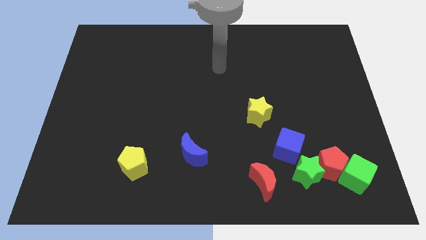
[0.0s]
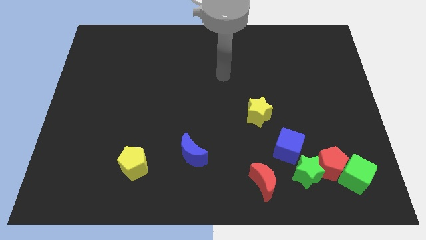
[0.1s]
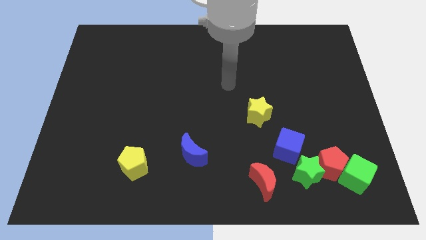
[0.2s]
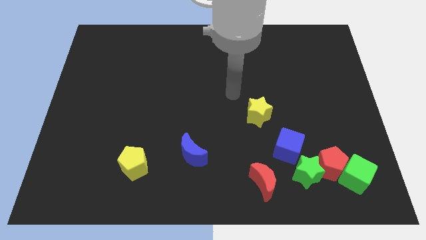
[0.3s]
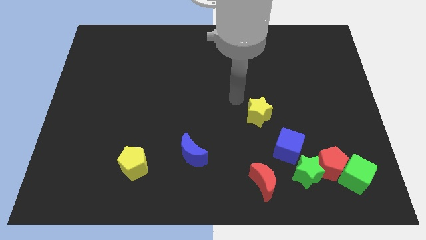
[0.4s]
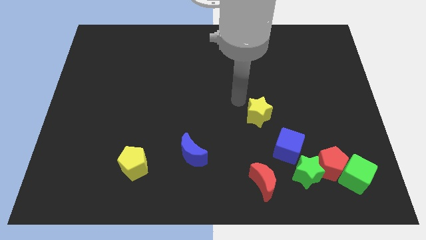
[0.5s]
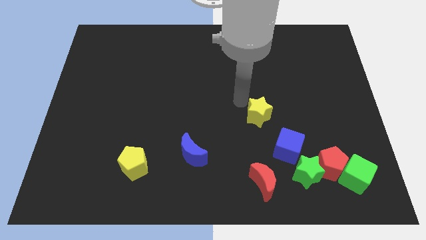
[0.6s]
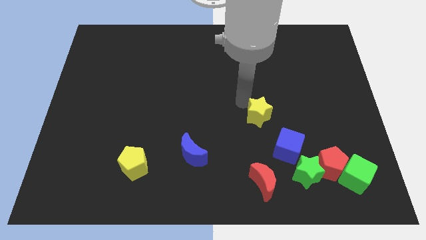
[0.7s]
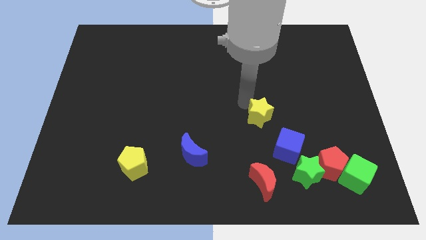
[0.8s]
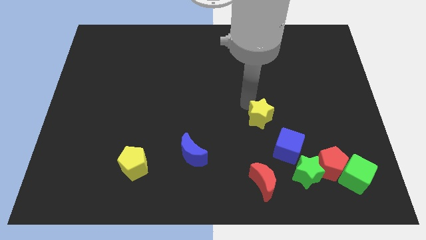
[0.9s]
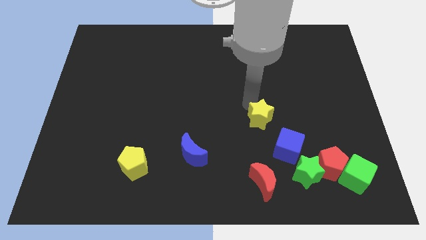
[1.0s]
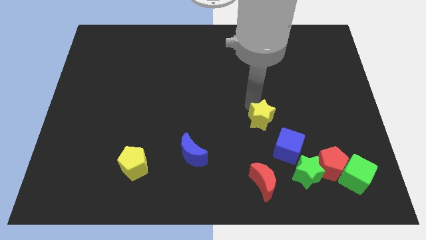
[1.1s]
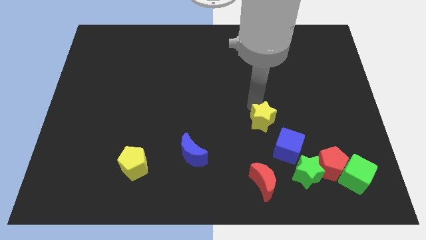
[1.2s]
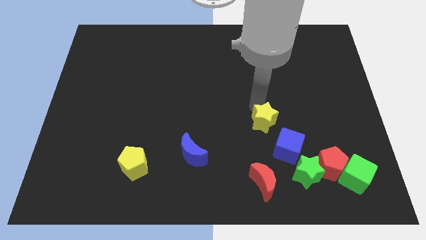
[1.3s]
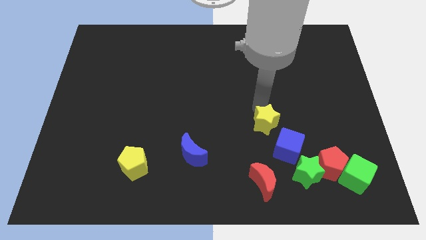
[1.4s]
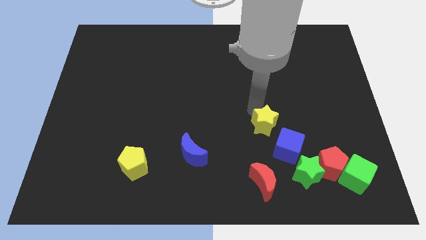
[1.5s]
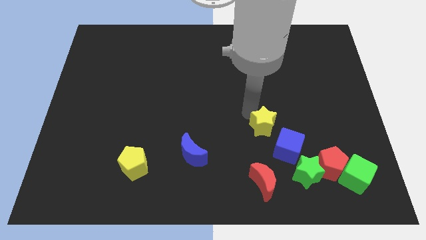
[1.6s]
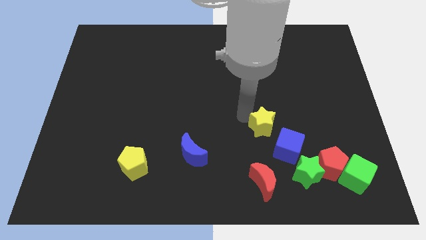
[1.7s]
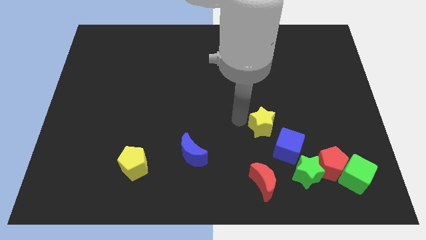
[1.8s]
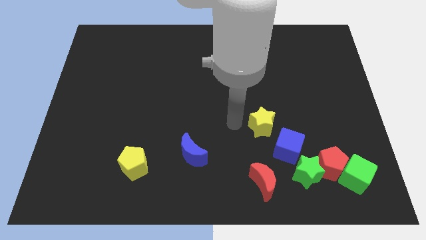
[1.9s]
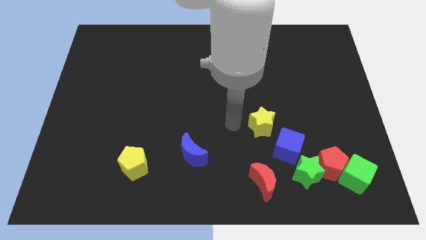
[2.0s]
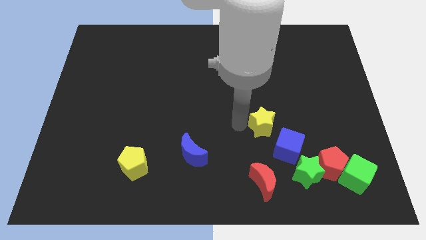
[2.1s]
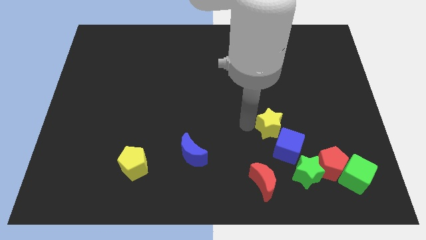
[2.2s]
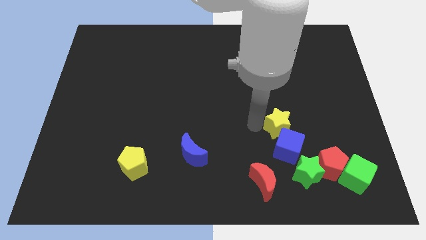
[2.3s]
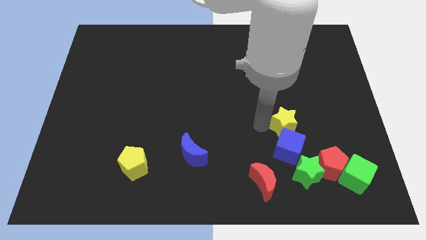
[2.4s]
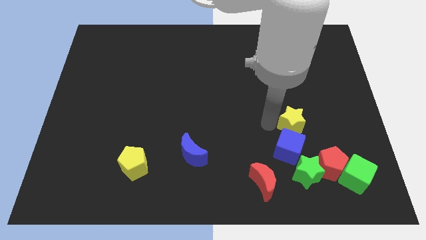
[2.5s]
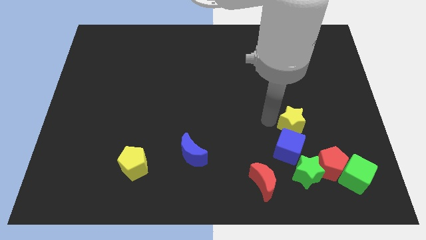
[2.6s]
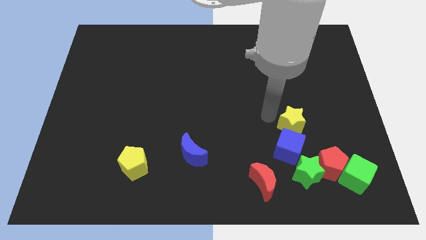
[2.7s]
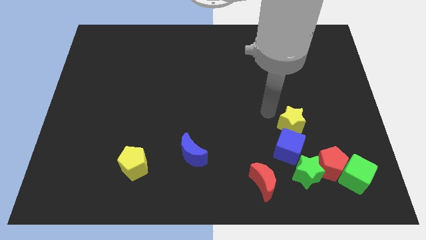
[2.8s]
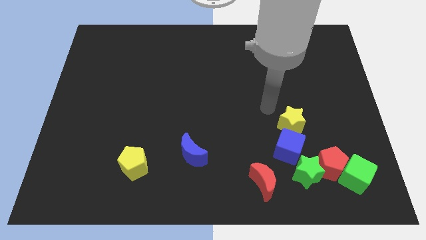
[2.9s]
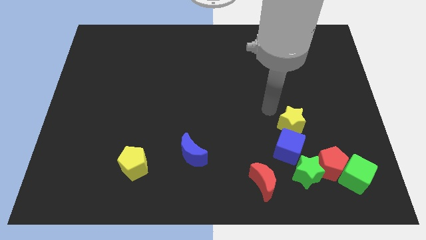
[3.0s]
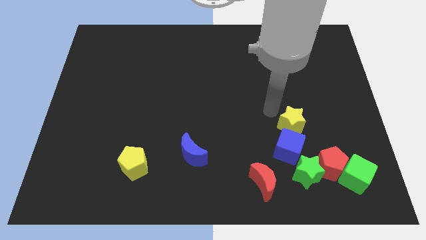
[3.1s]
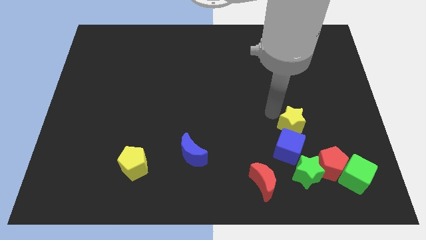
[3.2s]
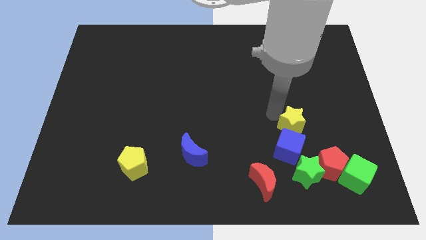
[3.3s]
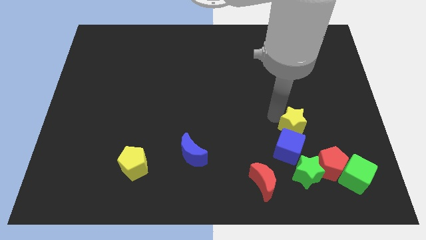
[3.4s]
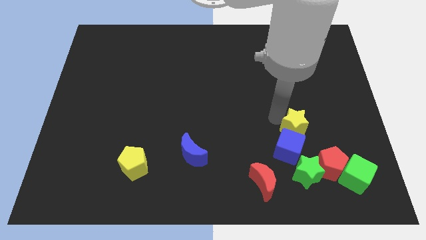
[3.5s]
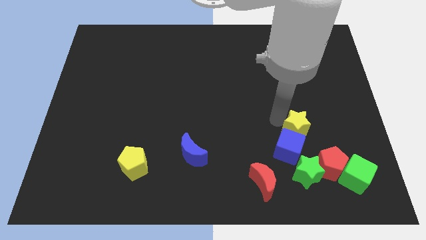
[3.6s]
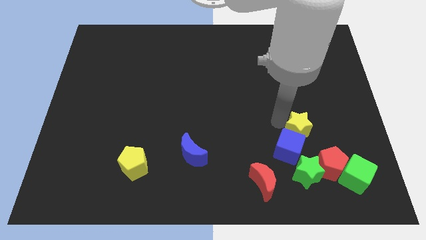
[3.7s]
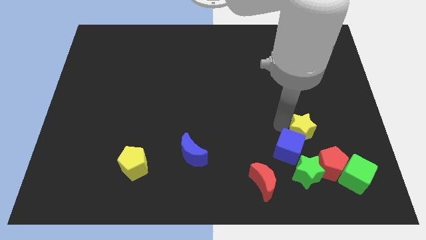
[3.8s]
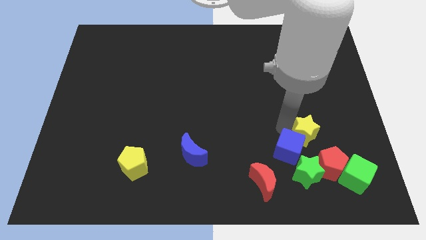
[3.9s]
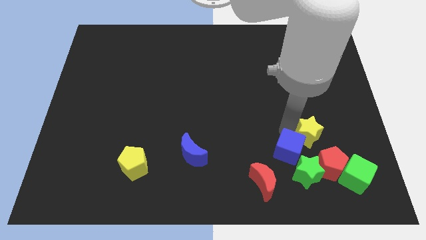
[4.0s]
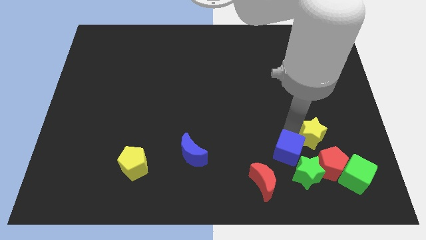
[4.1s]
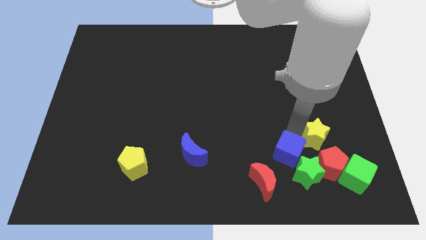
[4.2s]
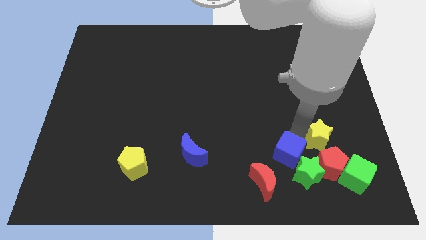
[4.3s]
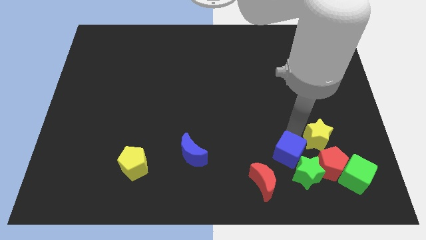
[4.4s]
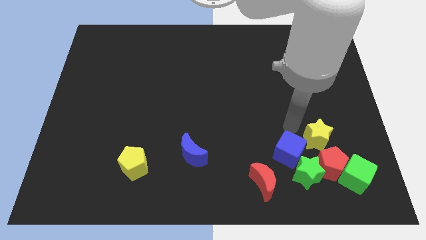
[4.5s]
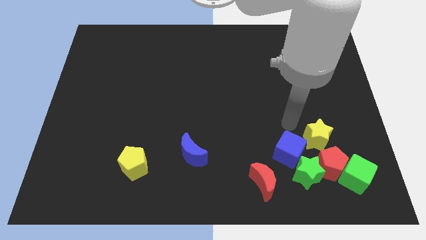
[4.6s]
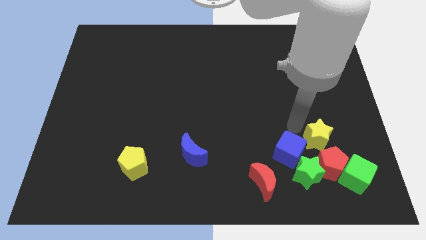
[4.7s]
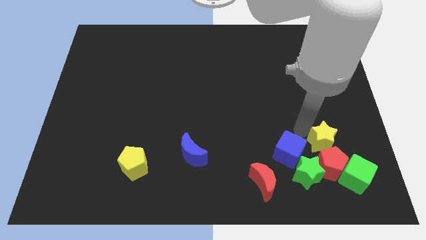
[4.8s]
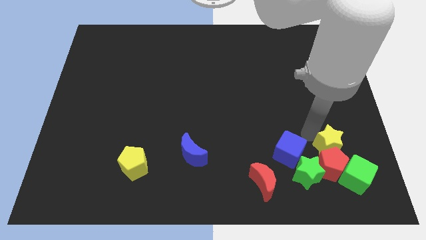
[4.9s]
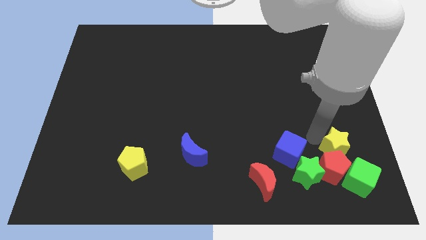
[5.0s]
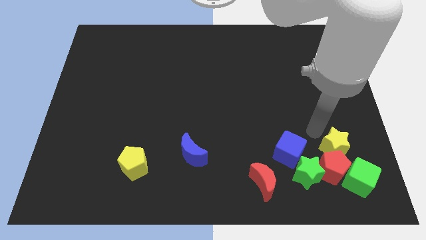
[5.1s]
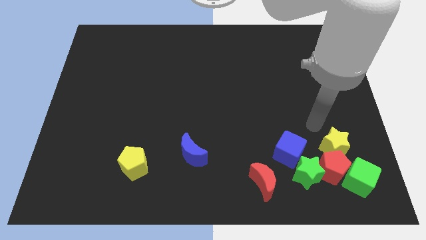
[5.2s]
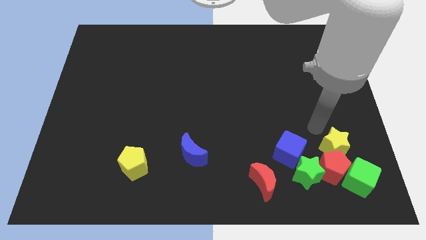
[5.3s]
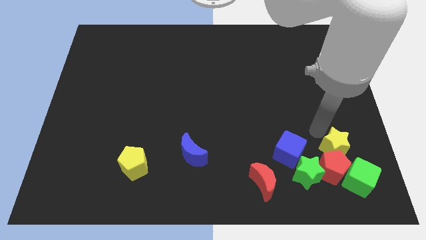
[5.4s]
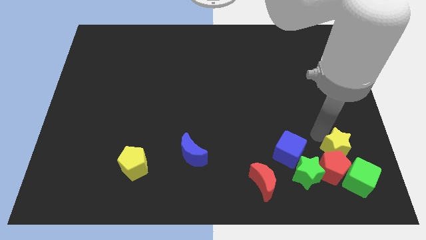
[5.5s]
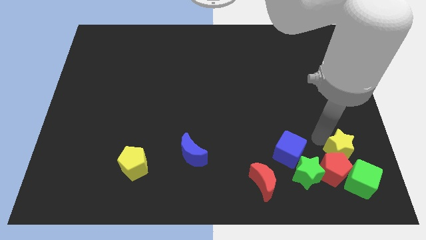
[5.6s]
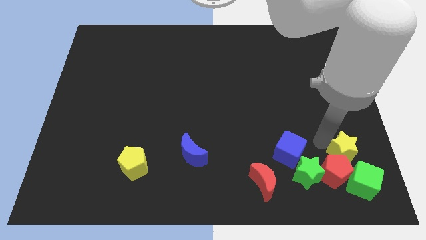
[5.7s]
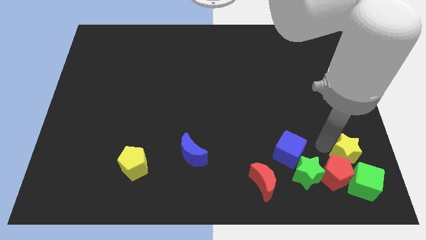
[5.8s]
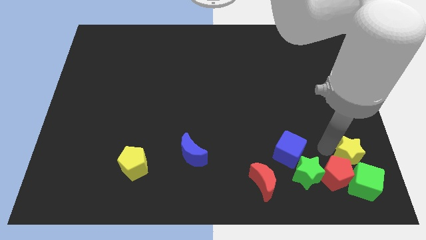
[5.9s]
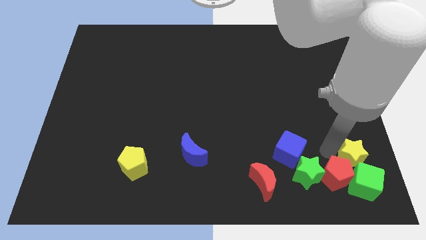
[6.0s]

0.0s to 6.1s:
move the yellow star next to the green cube
